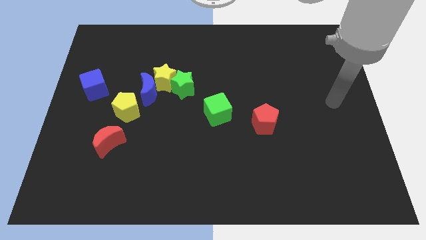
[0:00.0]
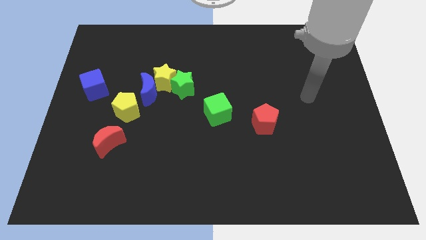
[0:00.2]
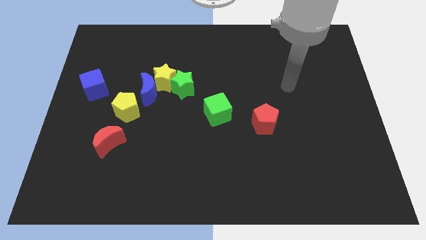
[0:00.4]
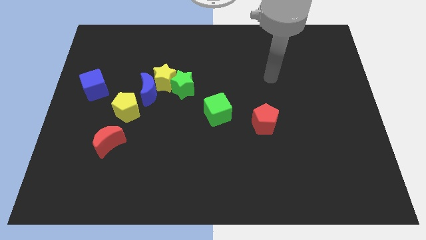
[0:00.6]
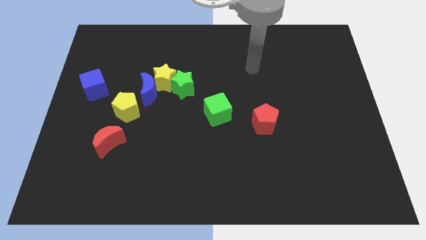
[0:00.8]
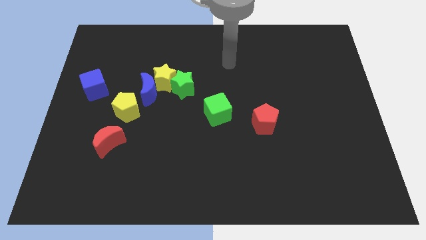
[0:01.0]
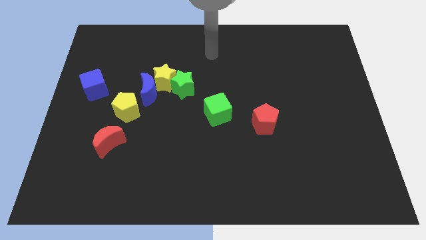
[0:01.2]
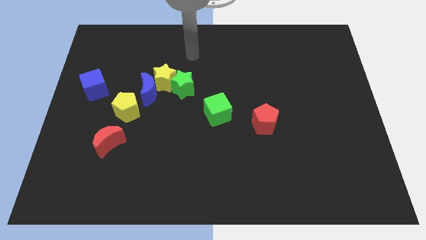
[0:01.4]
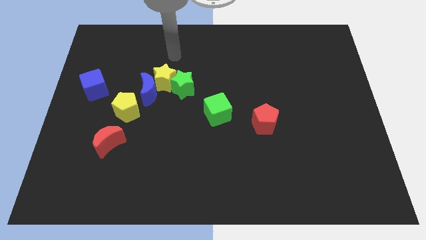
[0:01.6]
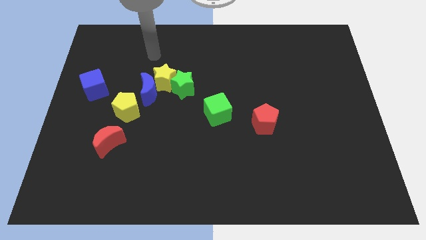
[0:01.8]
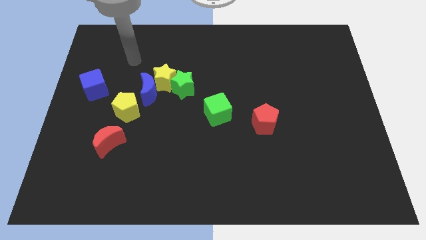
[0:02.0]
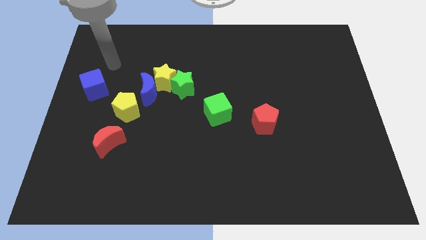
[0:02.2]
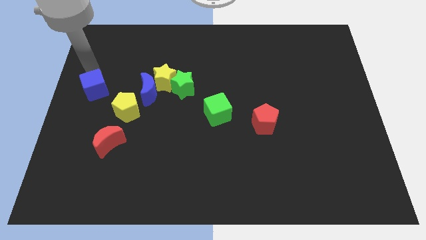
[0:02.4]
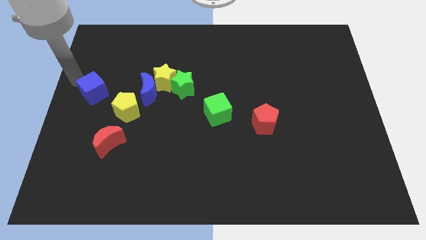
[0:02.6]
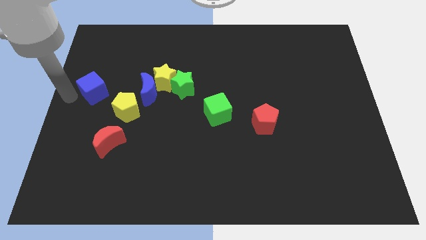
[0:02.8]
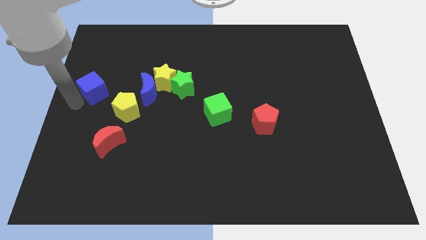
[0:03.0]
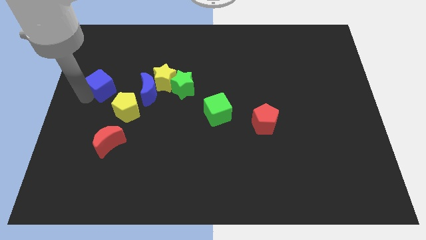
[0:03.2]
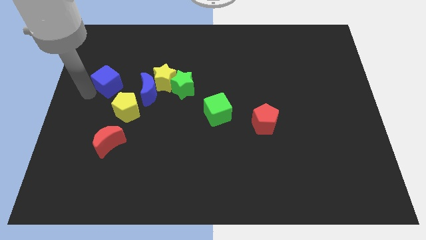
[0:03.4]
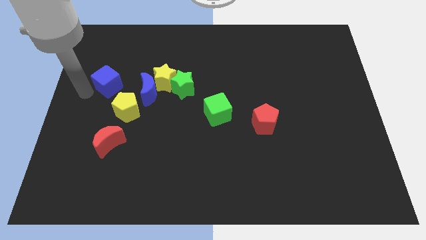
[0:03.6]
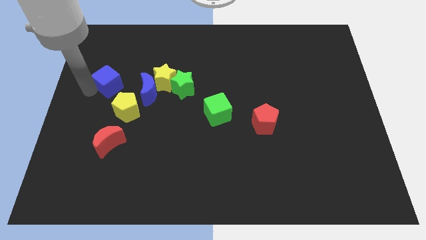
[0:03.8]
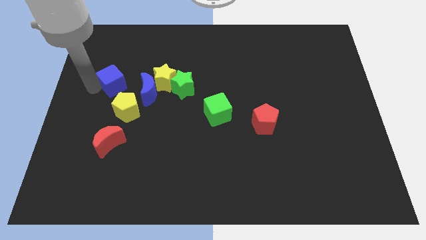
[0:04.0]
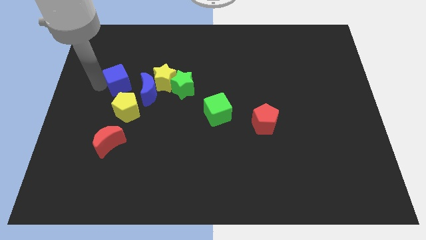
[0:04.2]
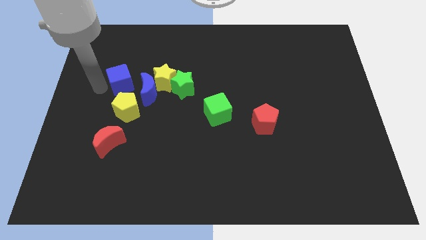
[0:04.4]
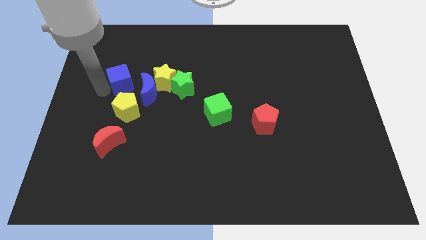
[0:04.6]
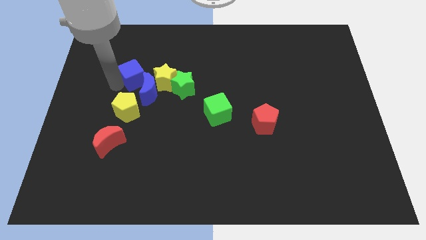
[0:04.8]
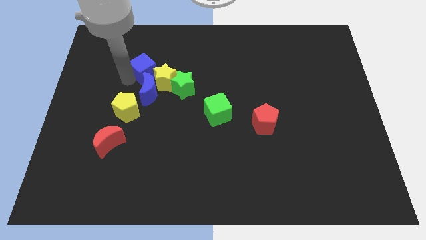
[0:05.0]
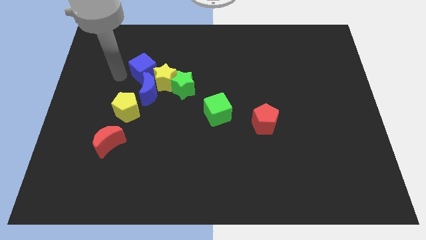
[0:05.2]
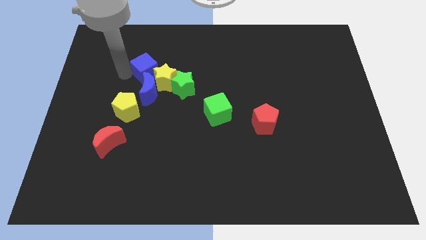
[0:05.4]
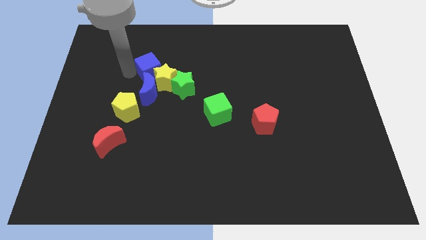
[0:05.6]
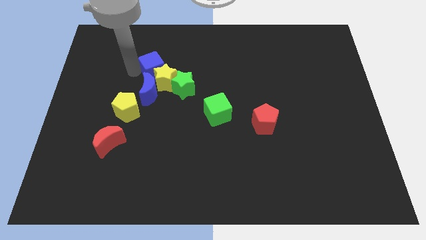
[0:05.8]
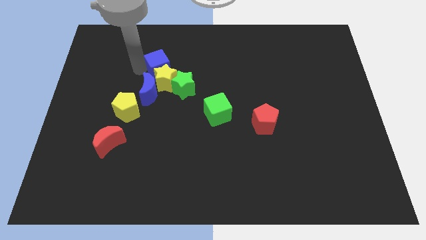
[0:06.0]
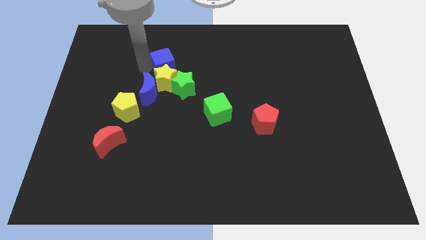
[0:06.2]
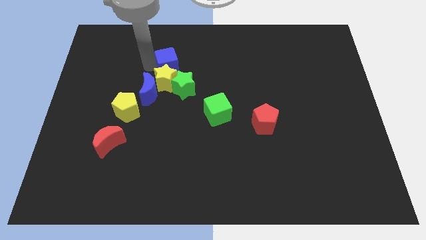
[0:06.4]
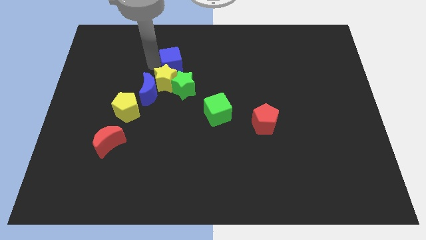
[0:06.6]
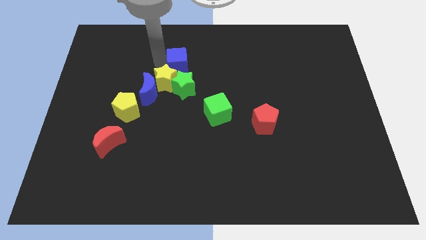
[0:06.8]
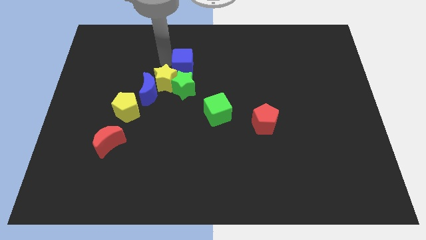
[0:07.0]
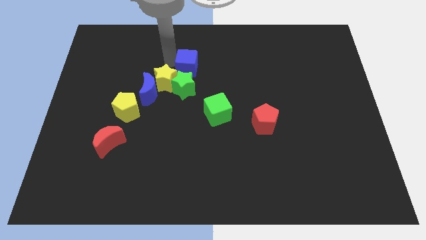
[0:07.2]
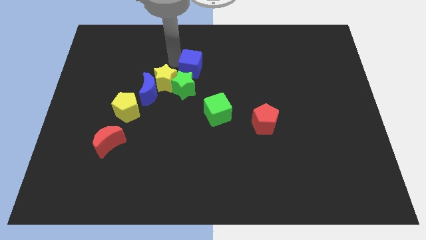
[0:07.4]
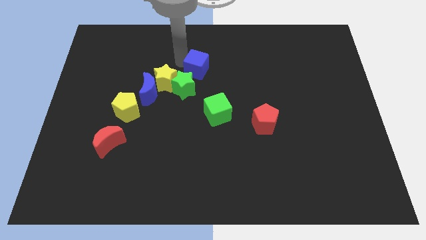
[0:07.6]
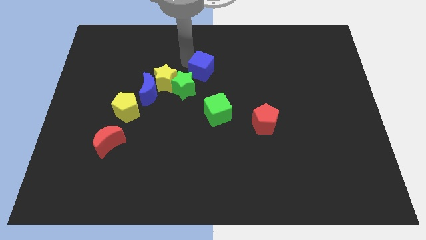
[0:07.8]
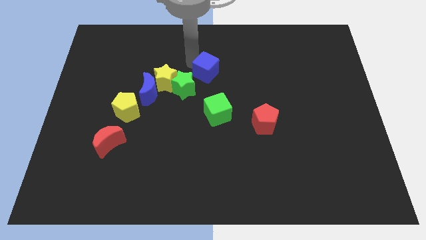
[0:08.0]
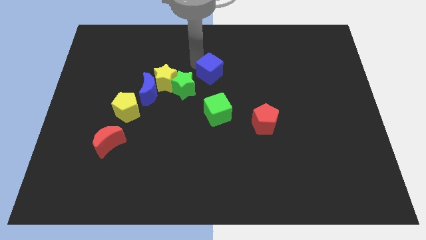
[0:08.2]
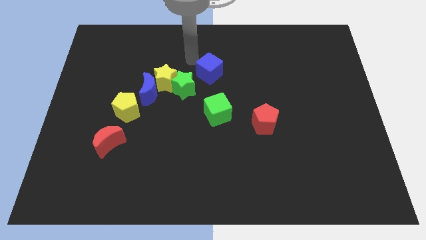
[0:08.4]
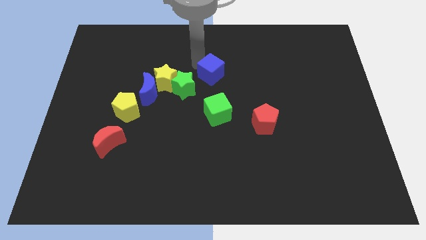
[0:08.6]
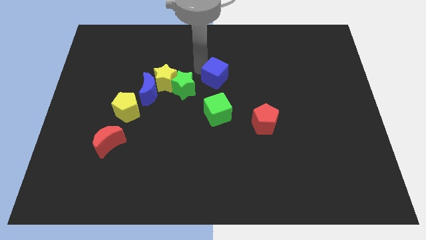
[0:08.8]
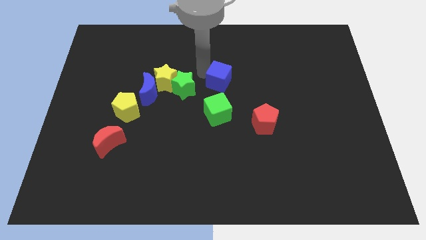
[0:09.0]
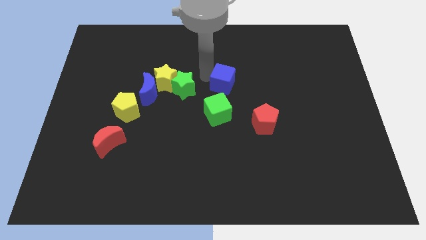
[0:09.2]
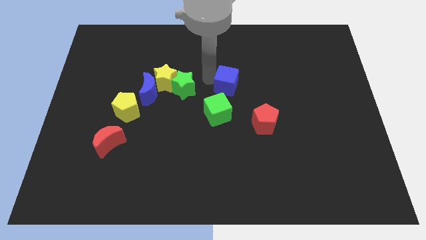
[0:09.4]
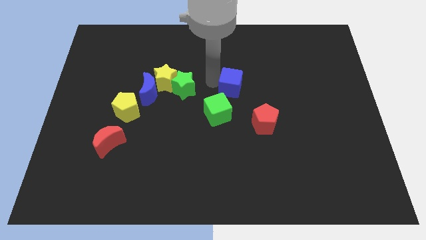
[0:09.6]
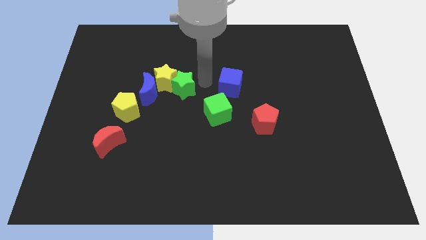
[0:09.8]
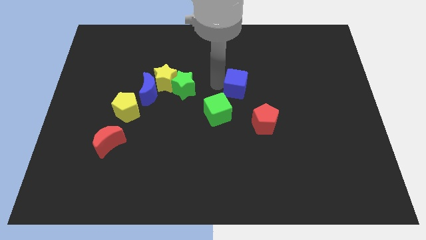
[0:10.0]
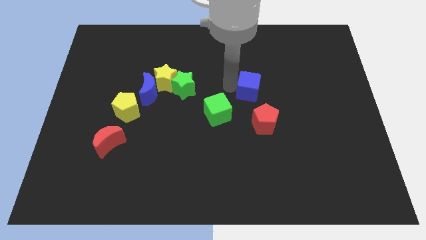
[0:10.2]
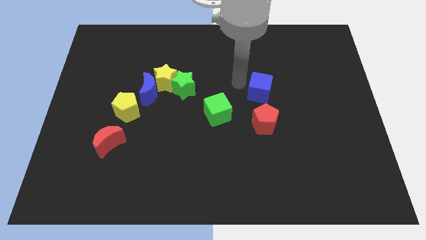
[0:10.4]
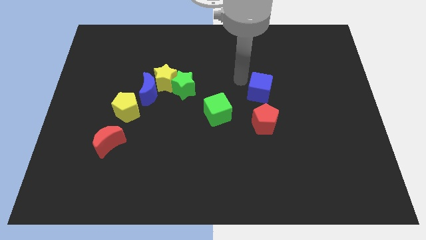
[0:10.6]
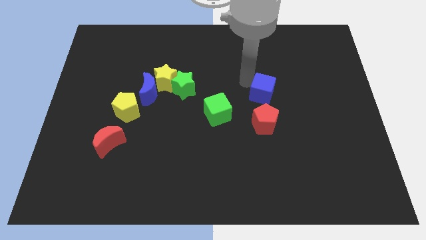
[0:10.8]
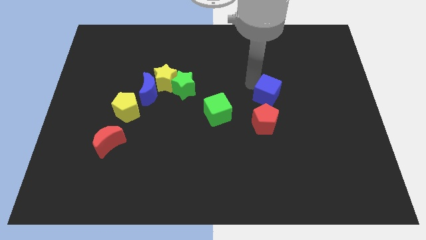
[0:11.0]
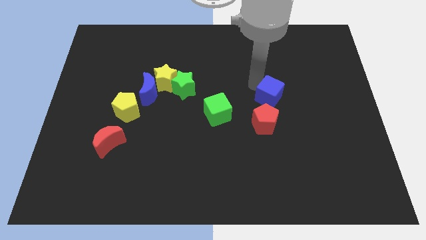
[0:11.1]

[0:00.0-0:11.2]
put the blue cube diagonally up and to the right of the red pentagon

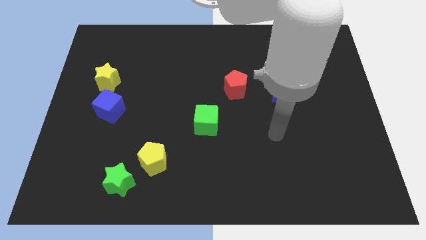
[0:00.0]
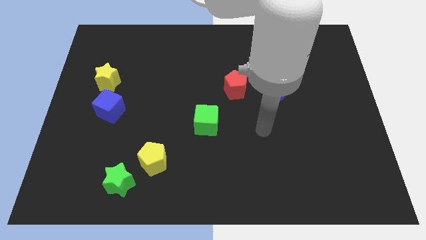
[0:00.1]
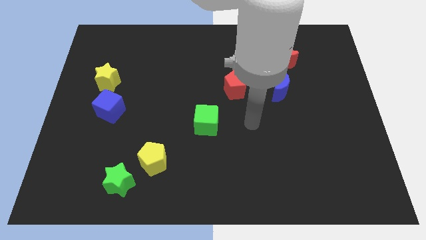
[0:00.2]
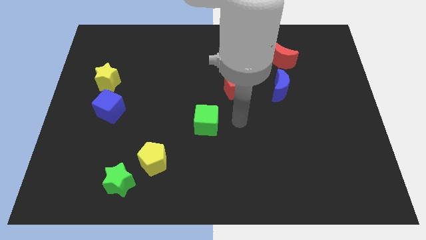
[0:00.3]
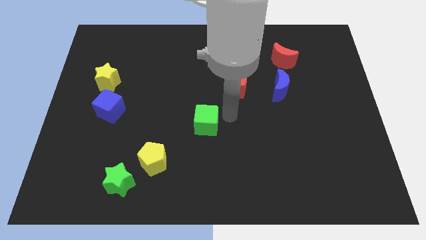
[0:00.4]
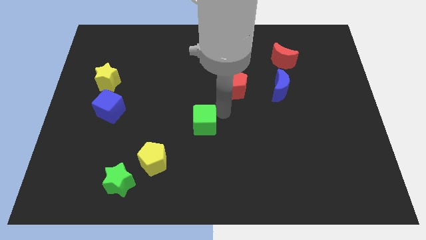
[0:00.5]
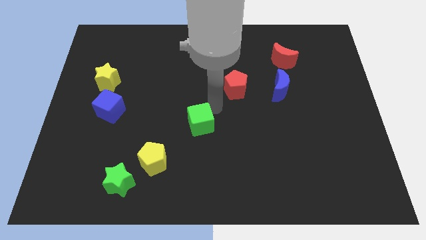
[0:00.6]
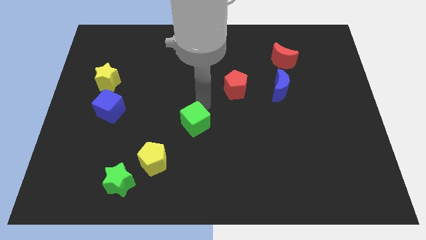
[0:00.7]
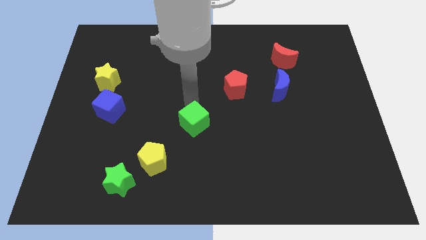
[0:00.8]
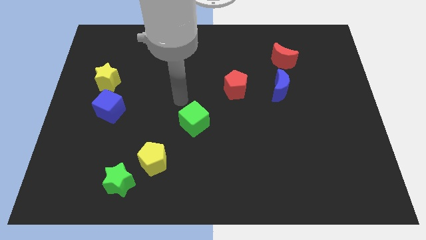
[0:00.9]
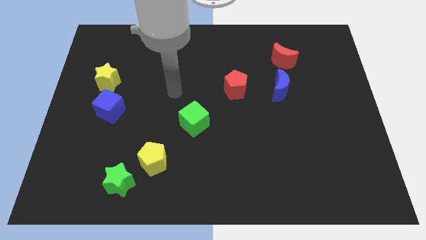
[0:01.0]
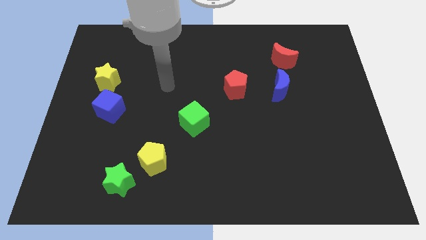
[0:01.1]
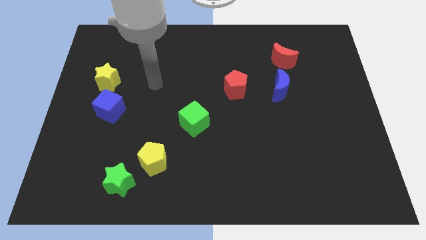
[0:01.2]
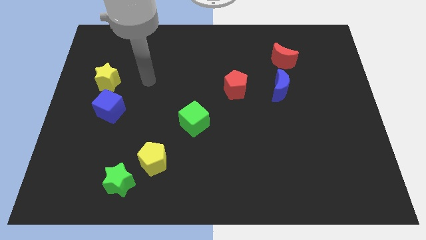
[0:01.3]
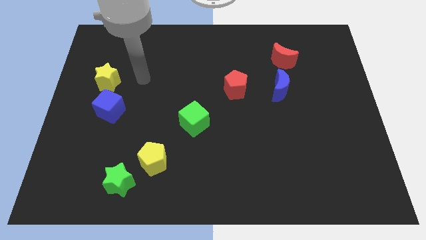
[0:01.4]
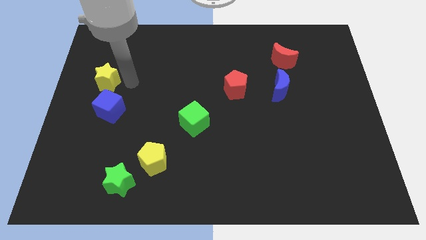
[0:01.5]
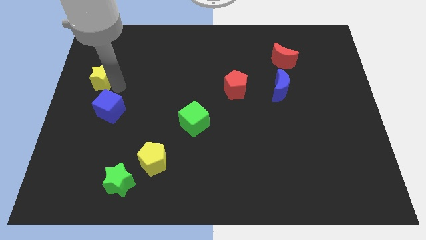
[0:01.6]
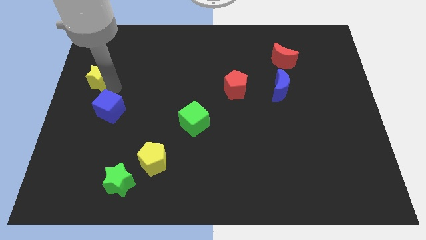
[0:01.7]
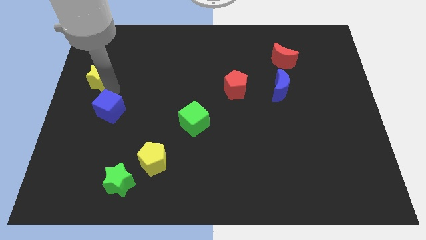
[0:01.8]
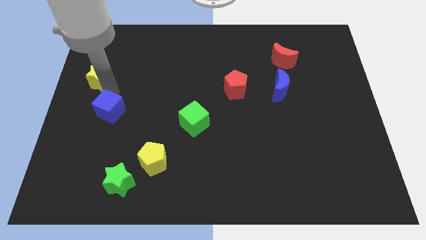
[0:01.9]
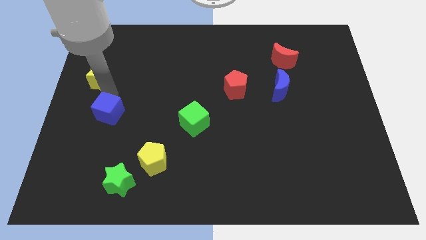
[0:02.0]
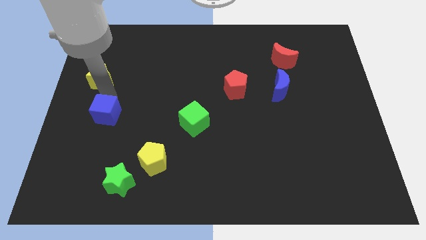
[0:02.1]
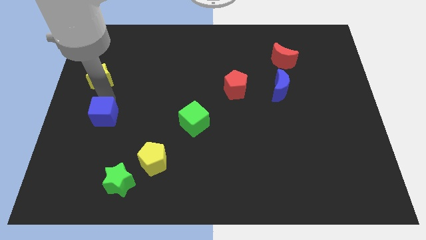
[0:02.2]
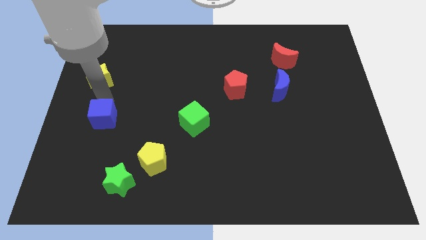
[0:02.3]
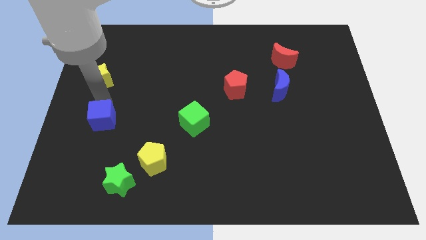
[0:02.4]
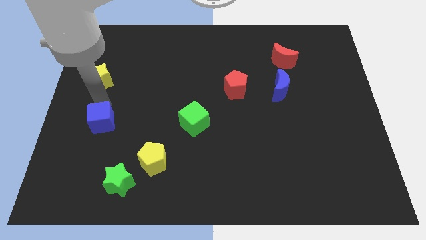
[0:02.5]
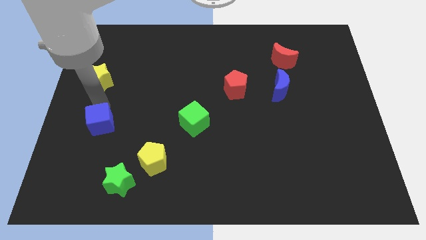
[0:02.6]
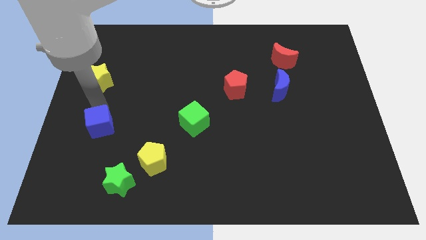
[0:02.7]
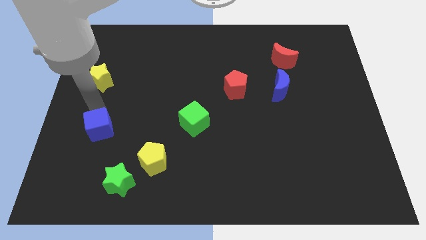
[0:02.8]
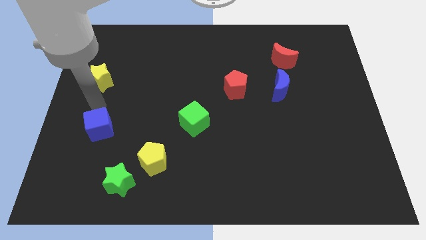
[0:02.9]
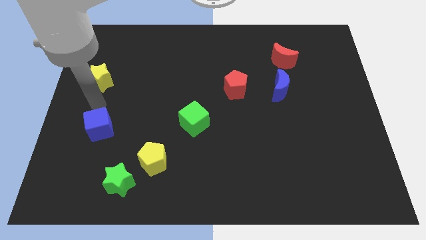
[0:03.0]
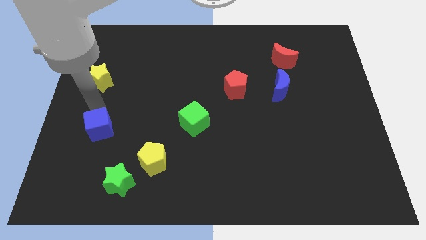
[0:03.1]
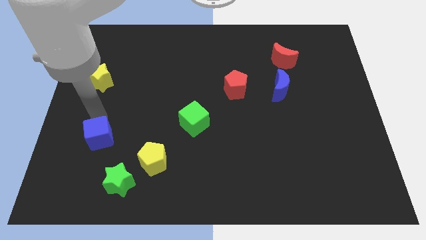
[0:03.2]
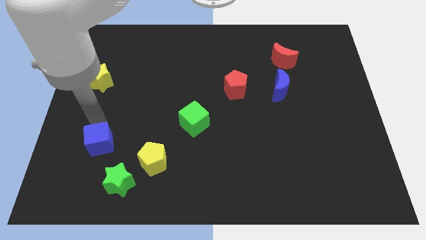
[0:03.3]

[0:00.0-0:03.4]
push the blue cube to the left side of the yellow pentagon
